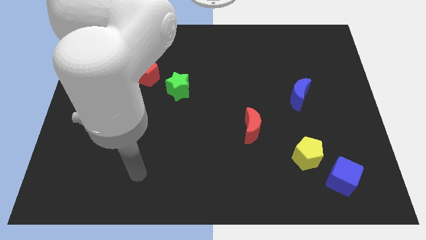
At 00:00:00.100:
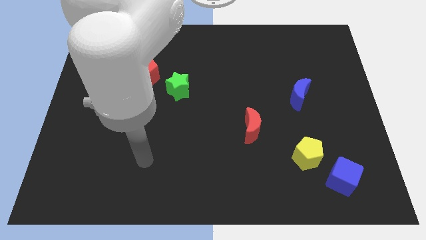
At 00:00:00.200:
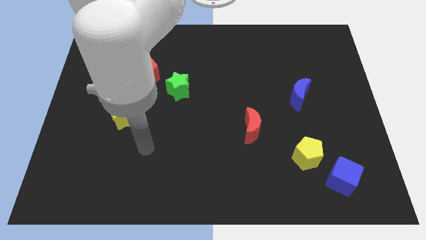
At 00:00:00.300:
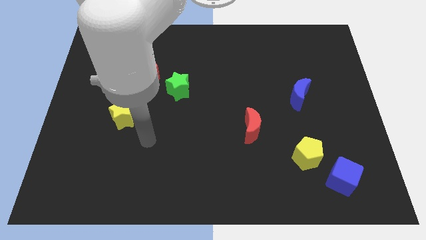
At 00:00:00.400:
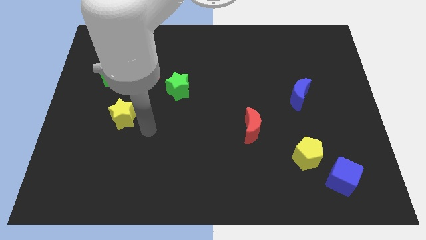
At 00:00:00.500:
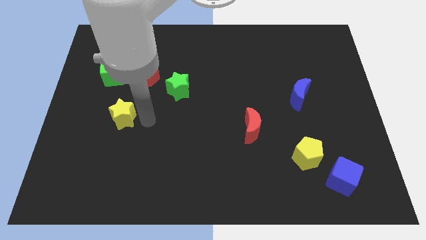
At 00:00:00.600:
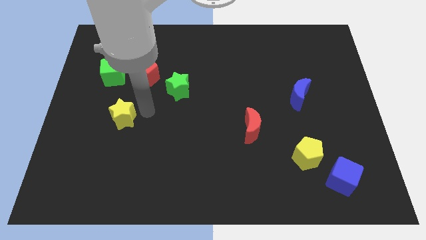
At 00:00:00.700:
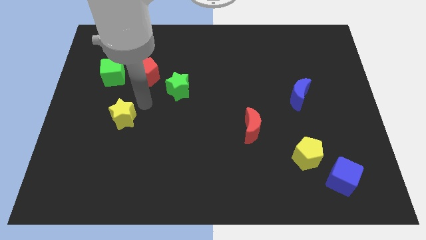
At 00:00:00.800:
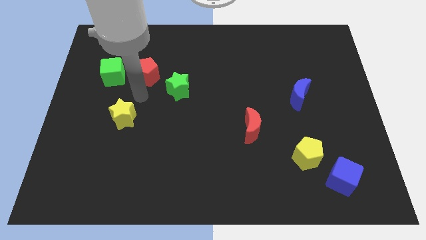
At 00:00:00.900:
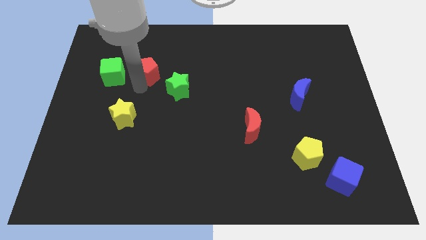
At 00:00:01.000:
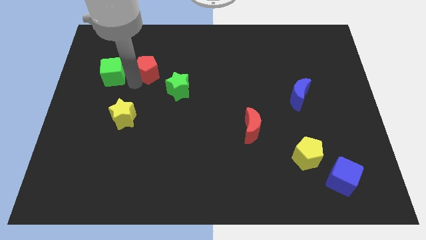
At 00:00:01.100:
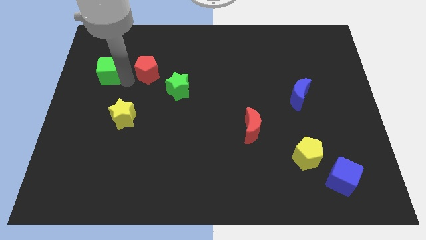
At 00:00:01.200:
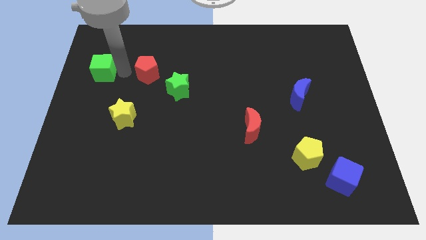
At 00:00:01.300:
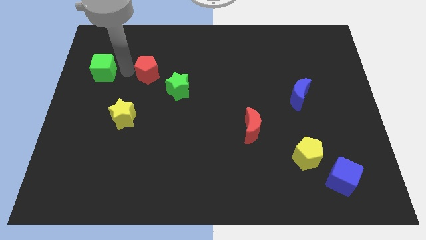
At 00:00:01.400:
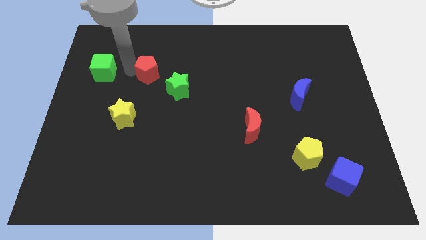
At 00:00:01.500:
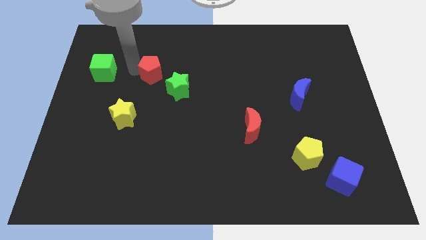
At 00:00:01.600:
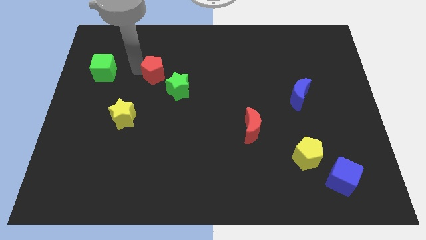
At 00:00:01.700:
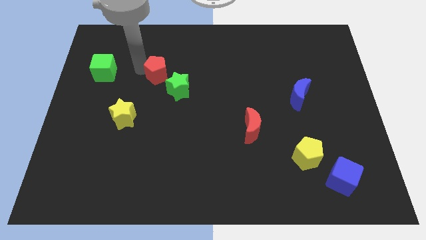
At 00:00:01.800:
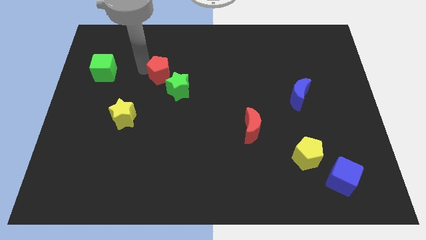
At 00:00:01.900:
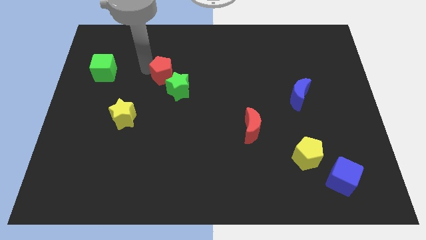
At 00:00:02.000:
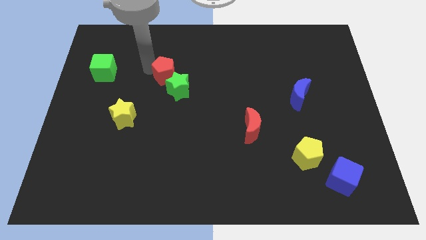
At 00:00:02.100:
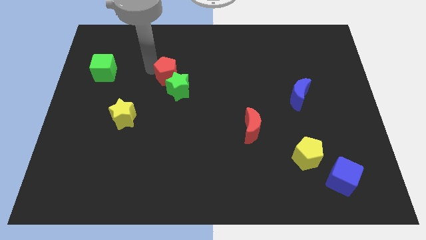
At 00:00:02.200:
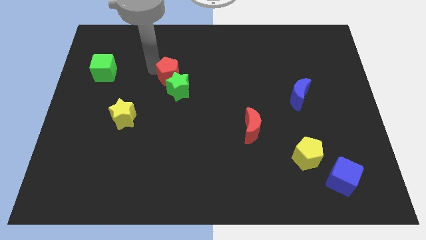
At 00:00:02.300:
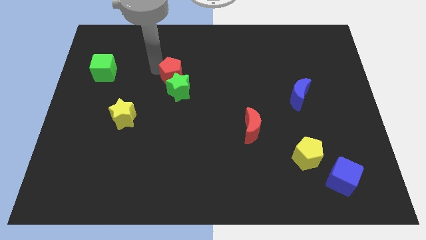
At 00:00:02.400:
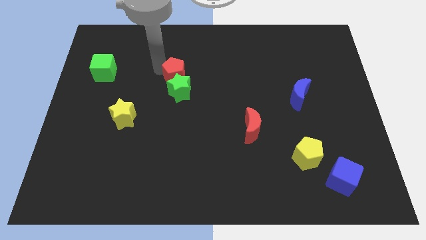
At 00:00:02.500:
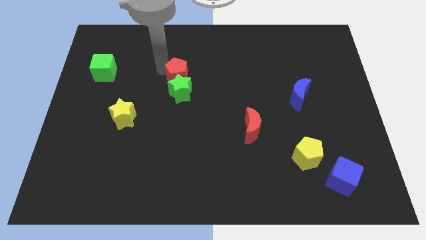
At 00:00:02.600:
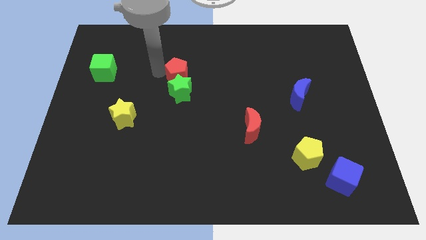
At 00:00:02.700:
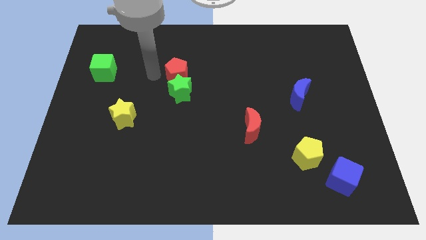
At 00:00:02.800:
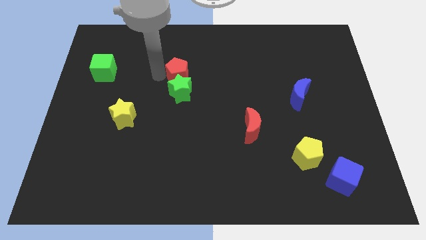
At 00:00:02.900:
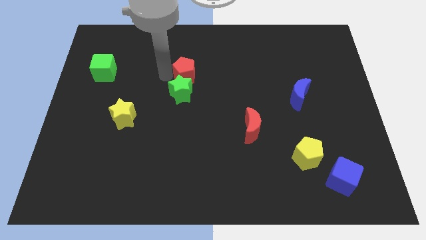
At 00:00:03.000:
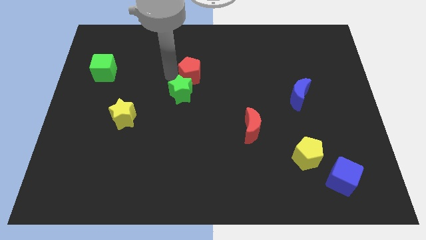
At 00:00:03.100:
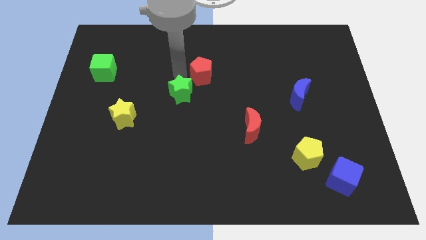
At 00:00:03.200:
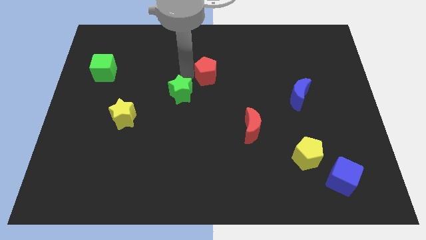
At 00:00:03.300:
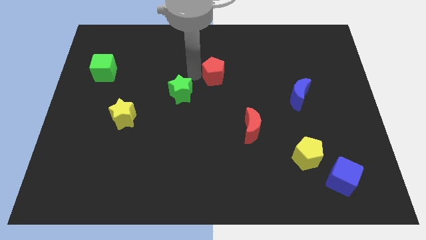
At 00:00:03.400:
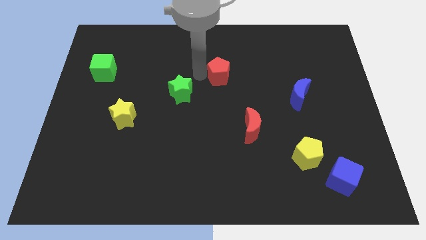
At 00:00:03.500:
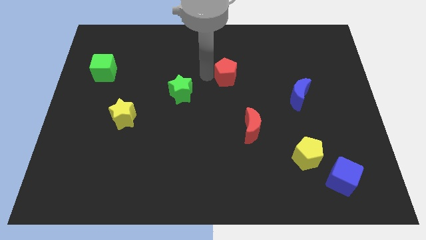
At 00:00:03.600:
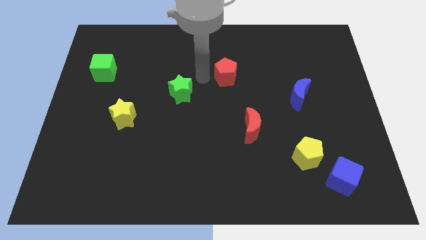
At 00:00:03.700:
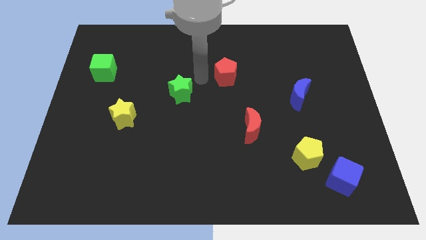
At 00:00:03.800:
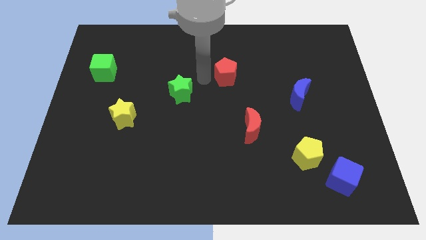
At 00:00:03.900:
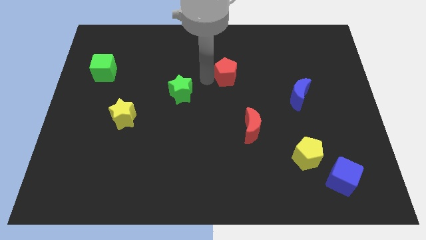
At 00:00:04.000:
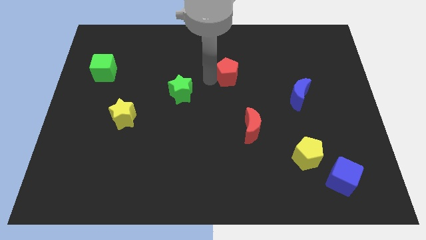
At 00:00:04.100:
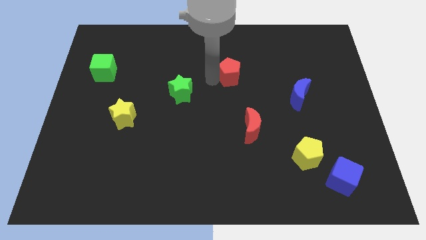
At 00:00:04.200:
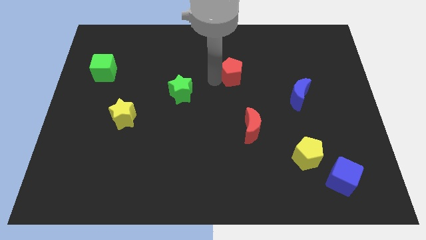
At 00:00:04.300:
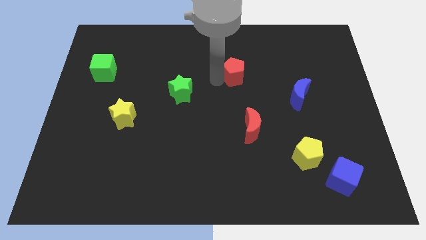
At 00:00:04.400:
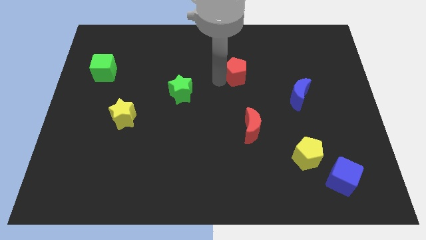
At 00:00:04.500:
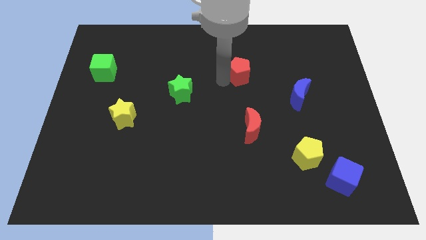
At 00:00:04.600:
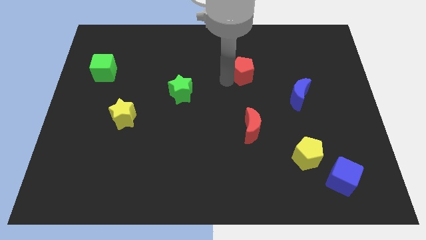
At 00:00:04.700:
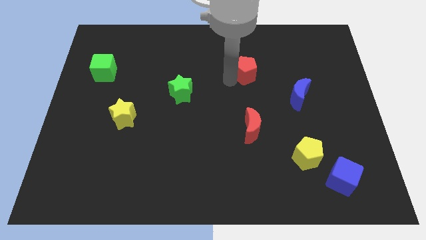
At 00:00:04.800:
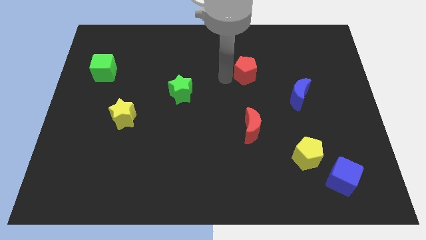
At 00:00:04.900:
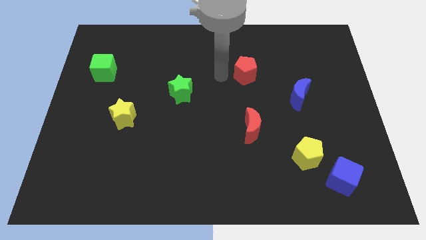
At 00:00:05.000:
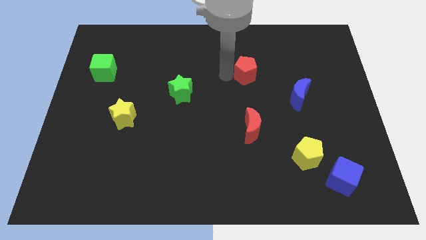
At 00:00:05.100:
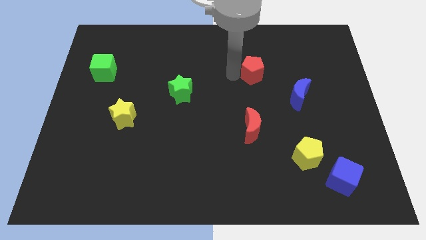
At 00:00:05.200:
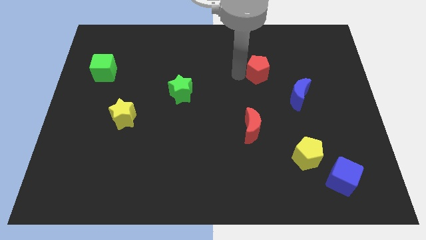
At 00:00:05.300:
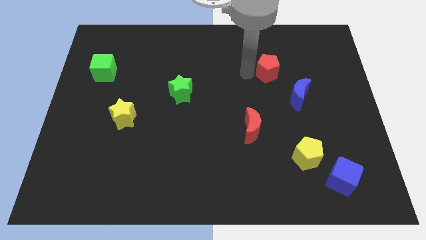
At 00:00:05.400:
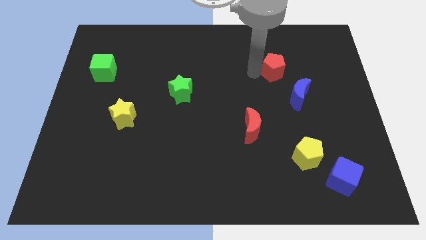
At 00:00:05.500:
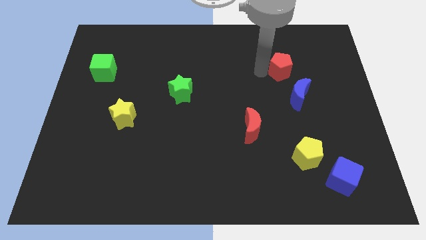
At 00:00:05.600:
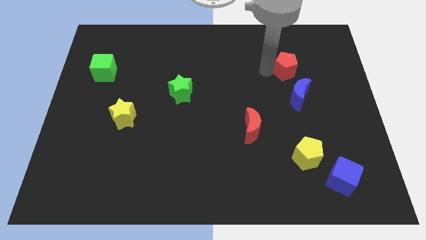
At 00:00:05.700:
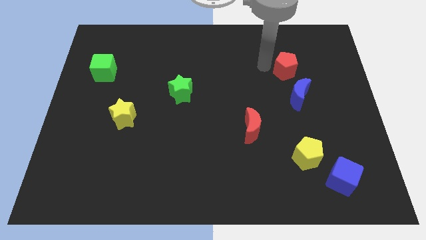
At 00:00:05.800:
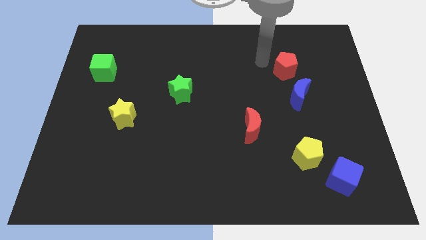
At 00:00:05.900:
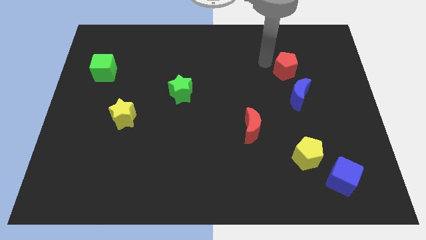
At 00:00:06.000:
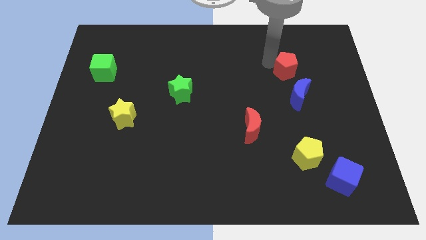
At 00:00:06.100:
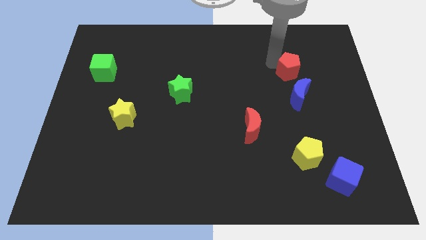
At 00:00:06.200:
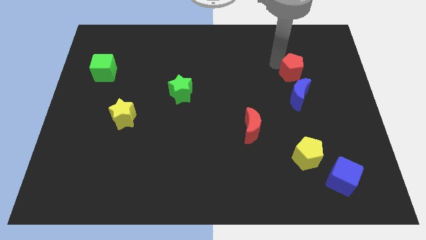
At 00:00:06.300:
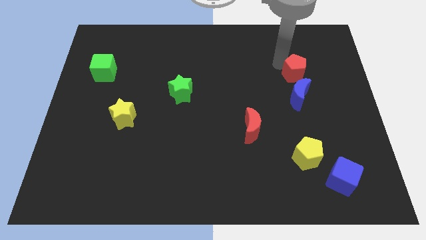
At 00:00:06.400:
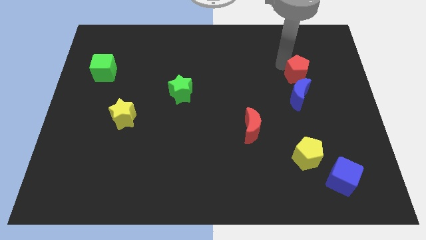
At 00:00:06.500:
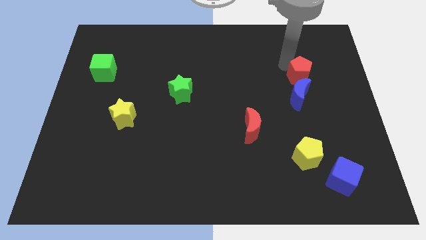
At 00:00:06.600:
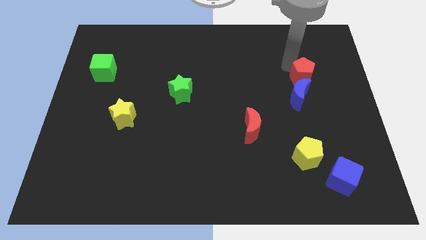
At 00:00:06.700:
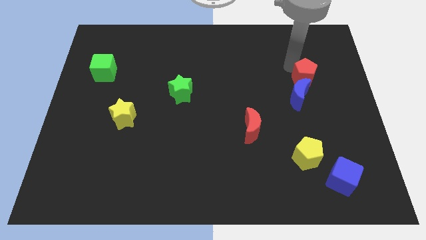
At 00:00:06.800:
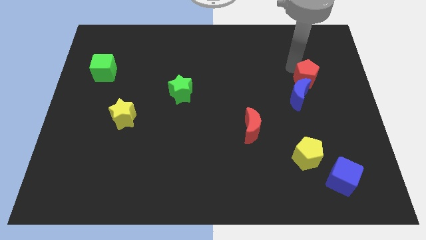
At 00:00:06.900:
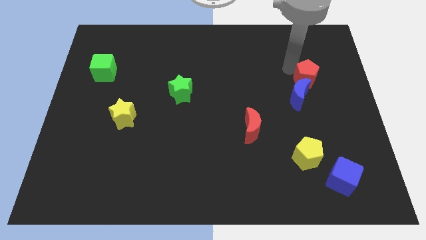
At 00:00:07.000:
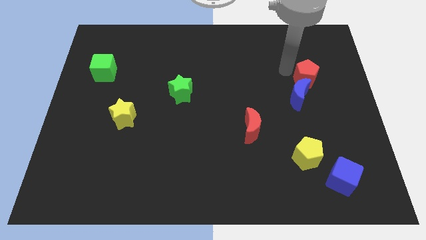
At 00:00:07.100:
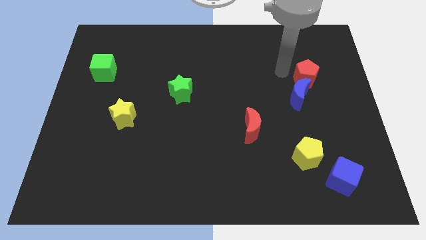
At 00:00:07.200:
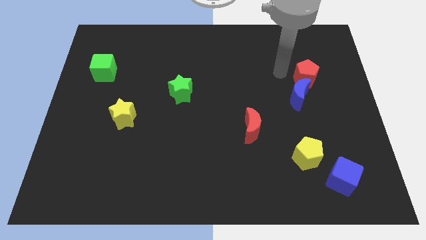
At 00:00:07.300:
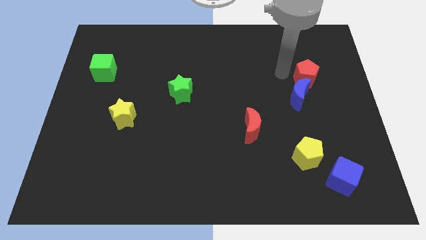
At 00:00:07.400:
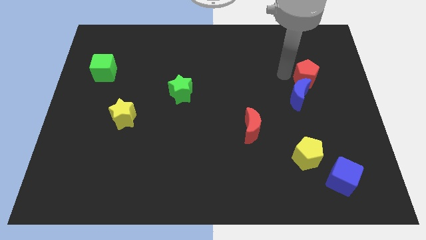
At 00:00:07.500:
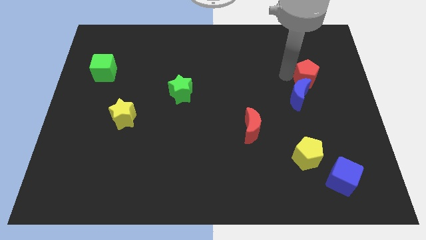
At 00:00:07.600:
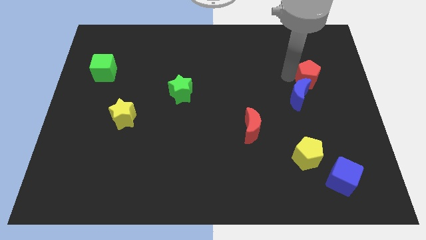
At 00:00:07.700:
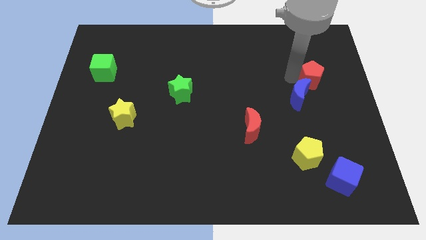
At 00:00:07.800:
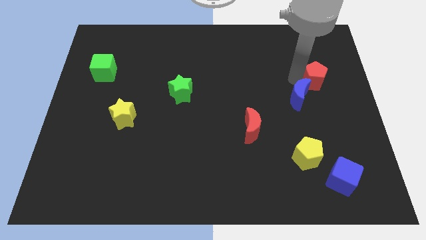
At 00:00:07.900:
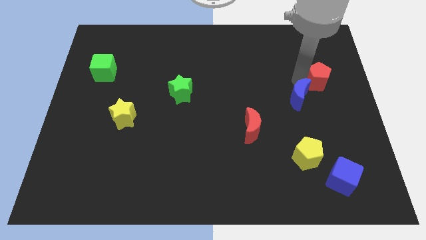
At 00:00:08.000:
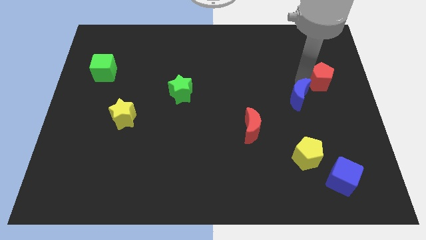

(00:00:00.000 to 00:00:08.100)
move the red pentagon to the center right
